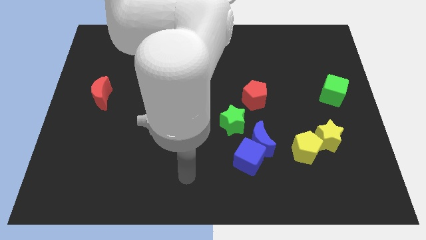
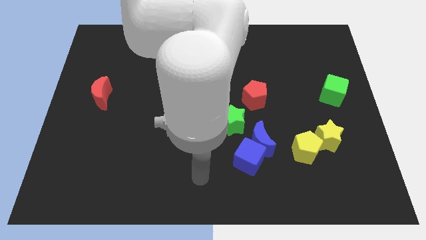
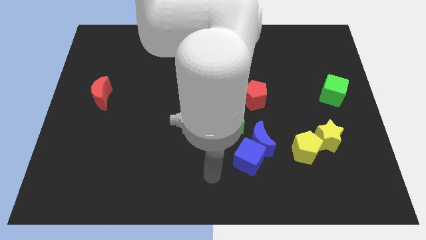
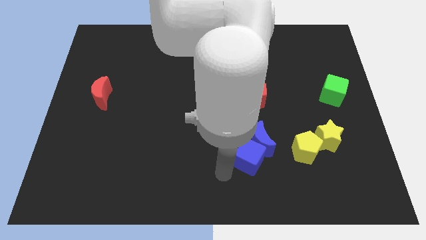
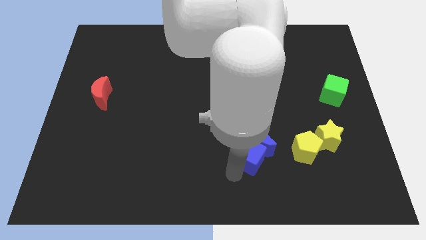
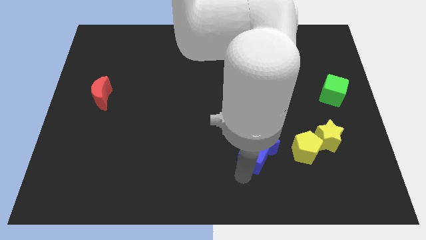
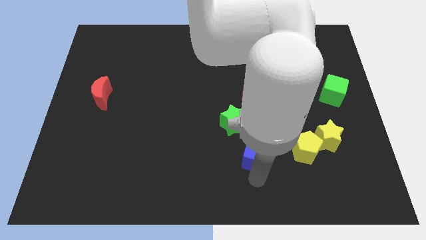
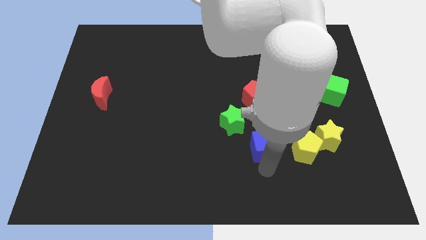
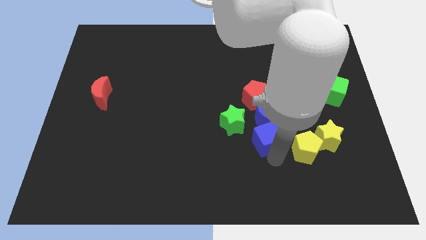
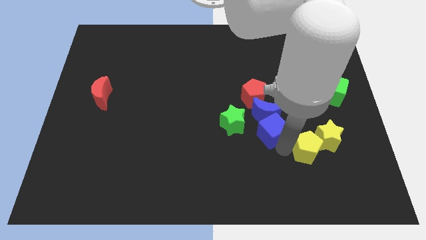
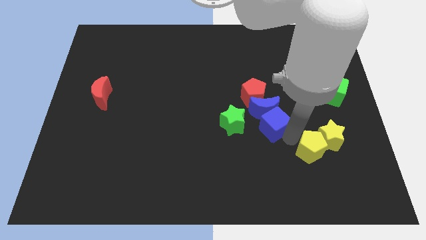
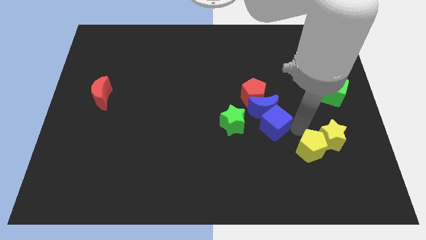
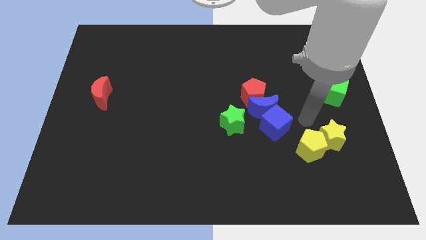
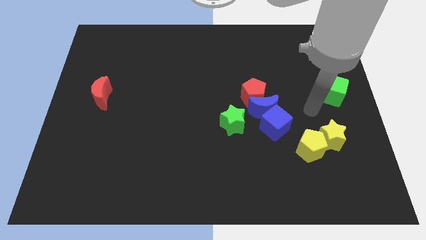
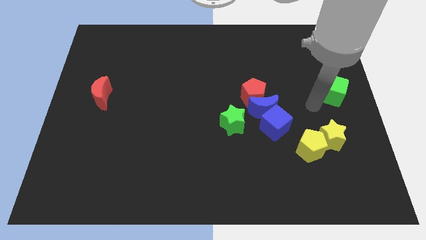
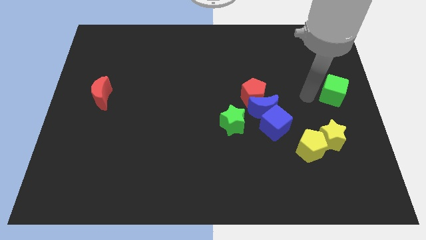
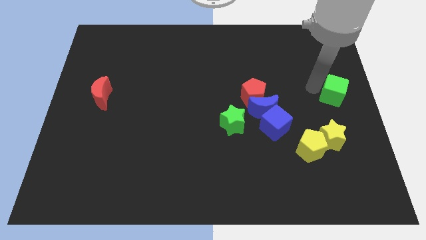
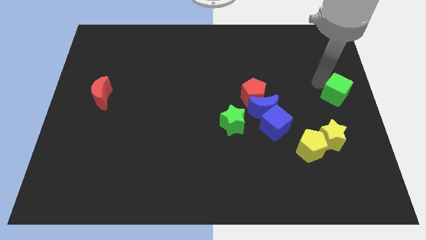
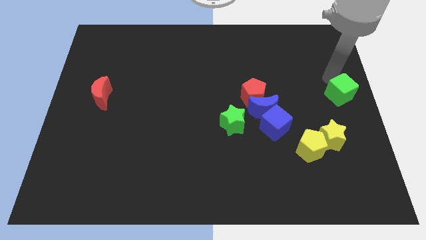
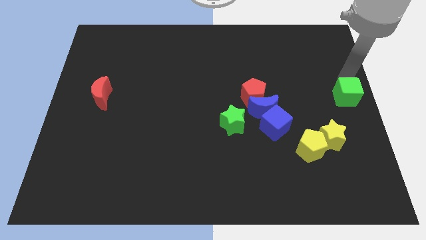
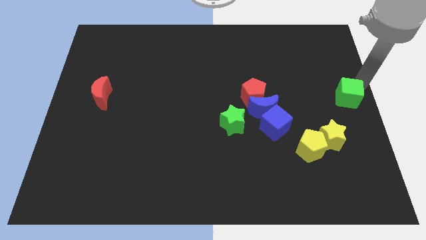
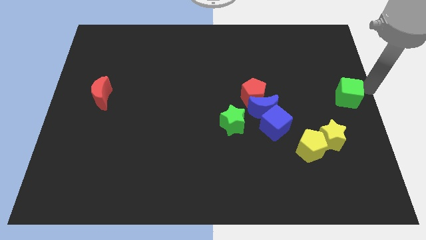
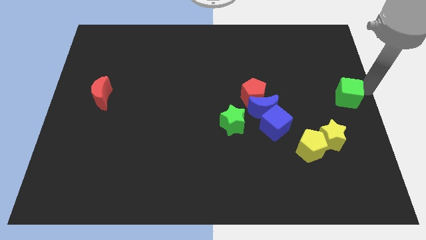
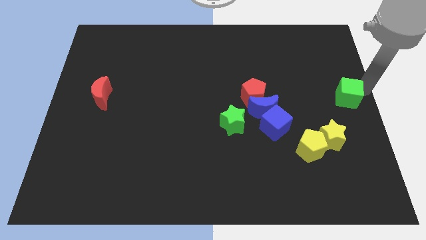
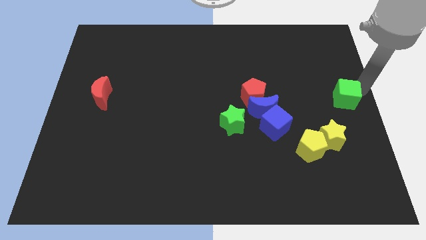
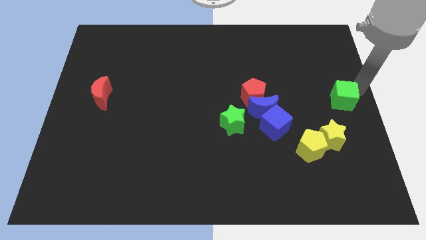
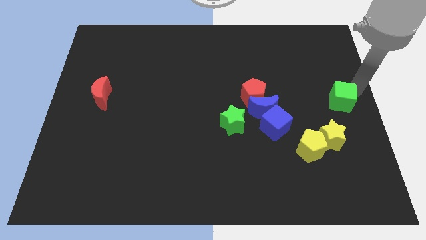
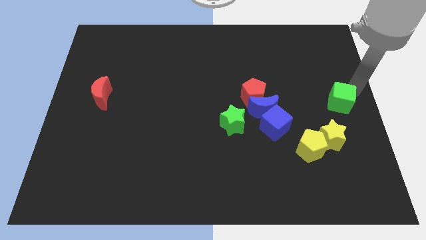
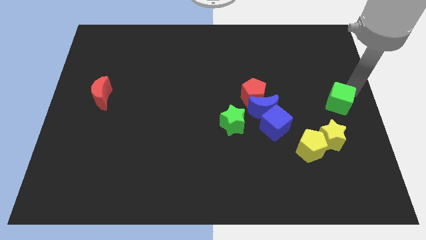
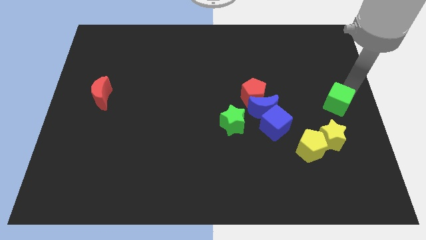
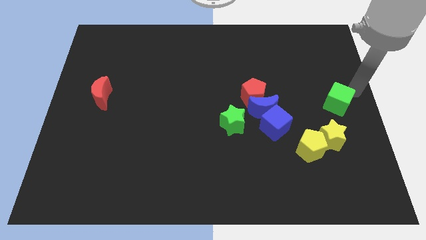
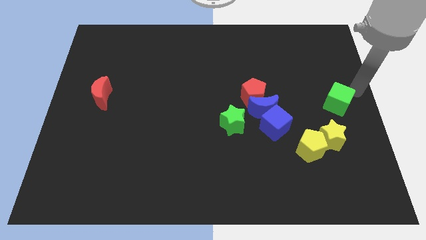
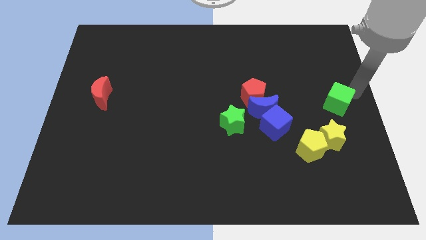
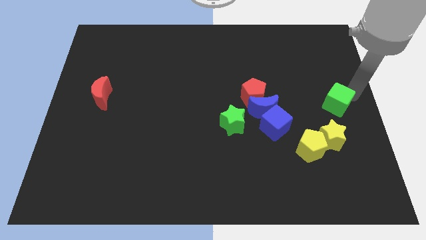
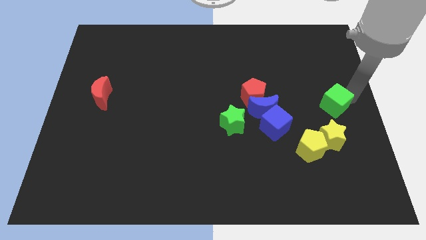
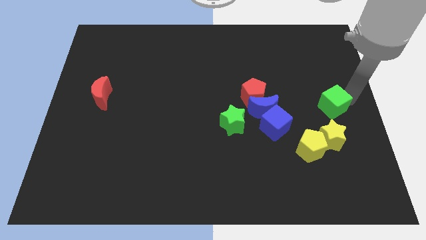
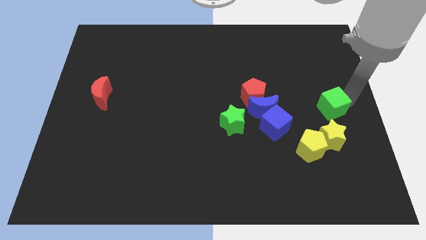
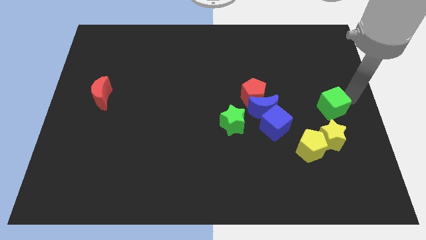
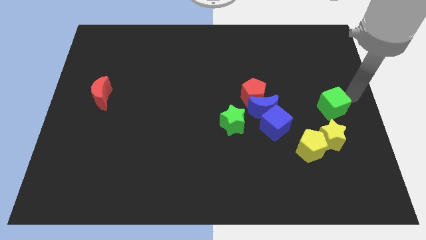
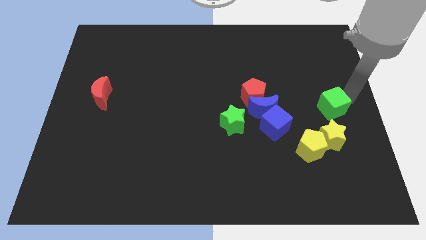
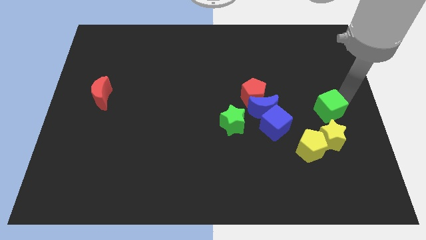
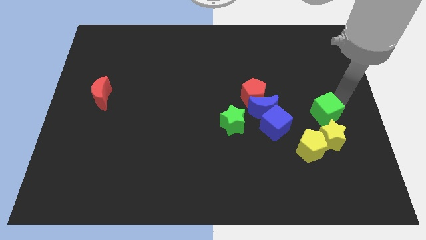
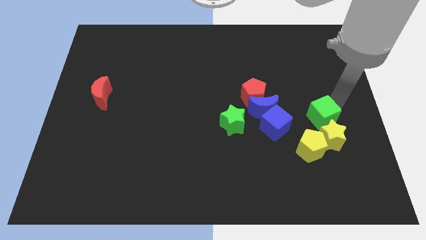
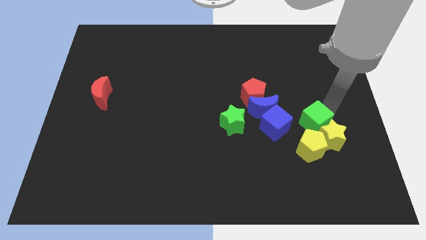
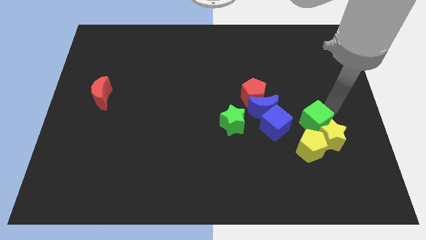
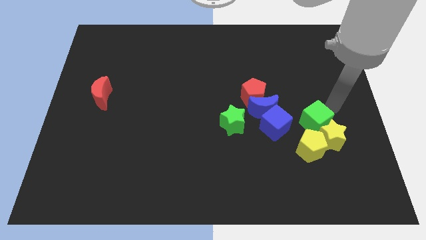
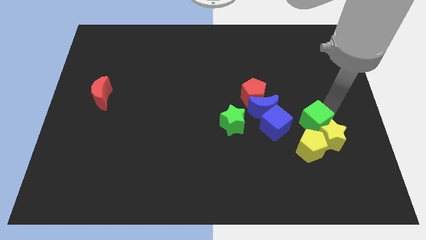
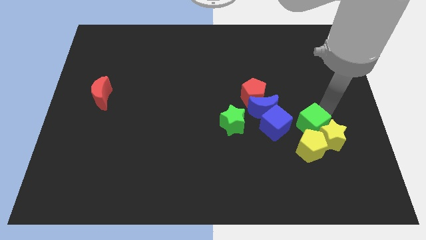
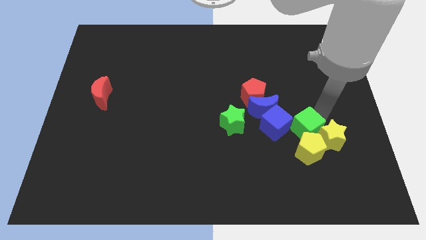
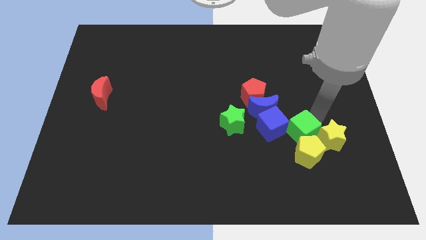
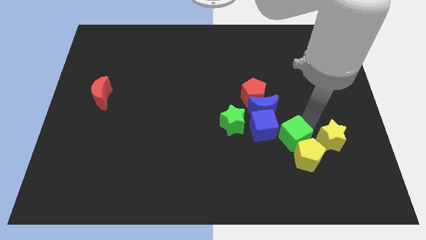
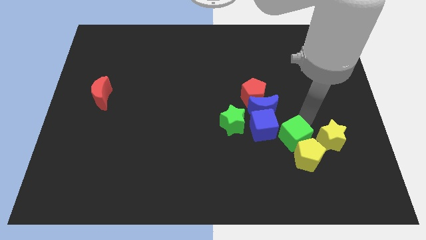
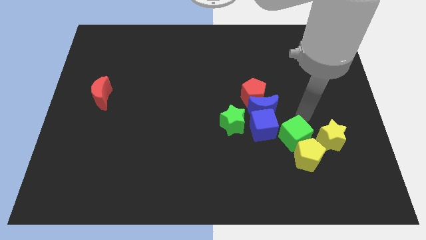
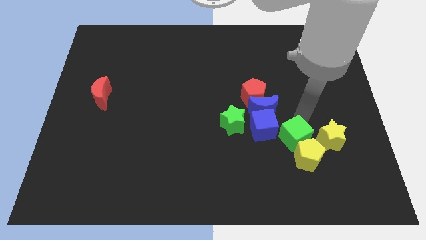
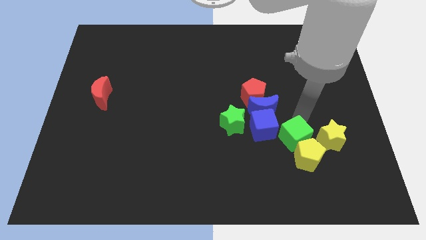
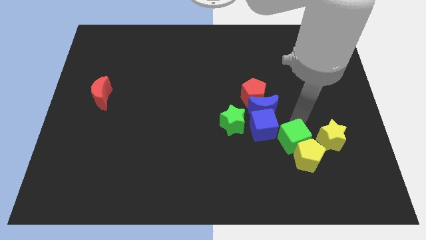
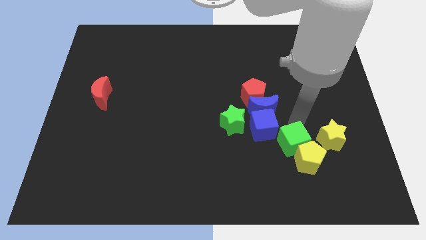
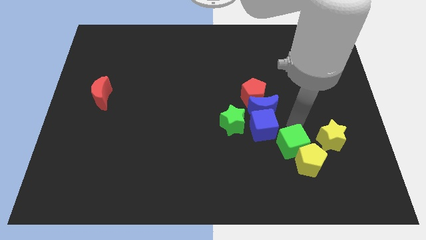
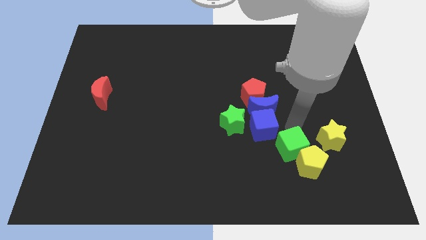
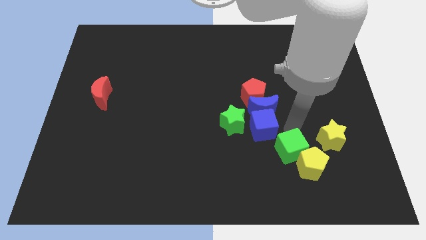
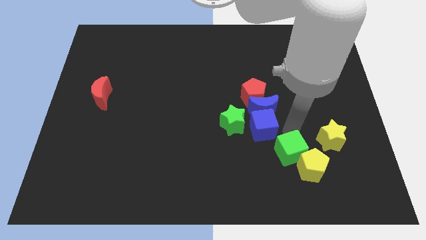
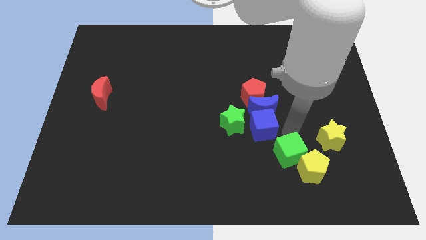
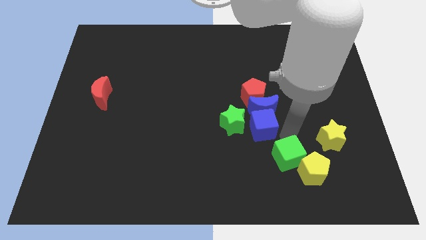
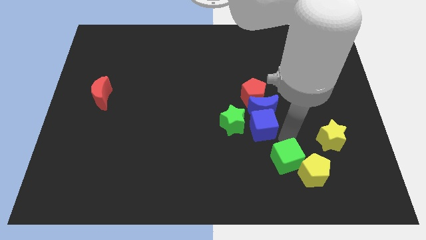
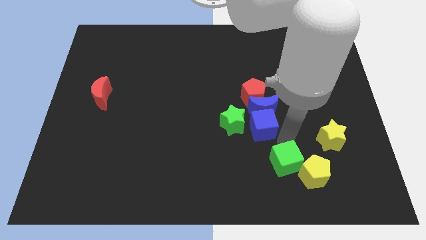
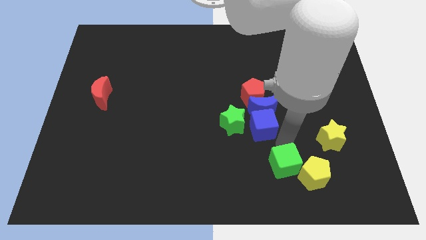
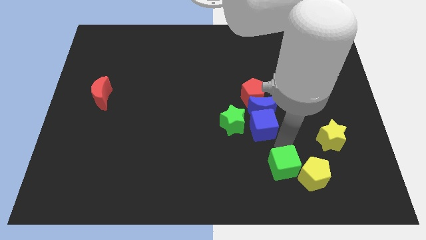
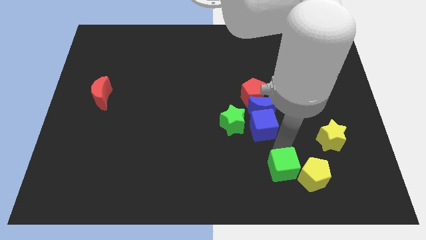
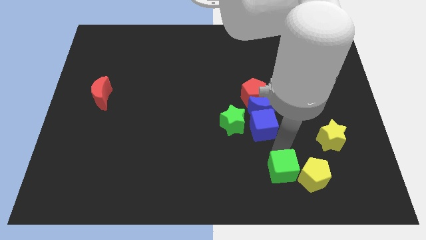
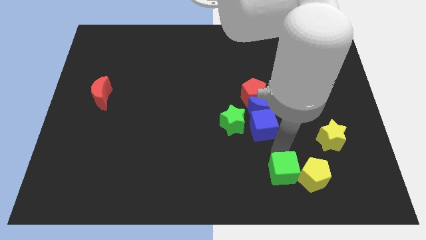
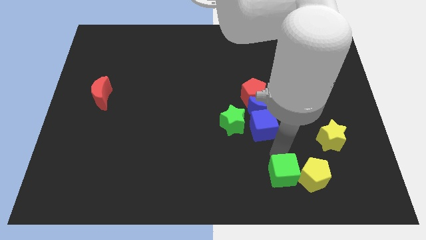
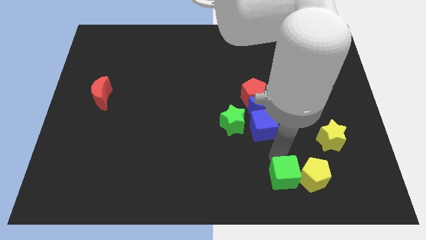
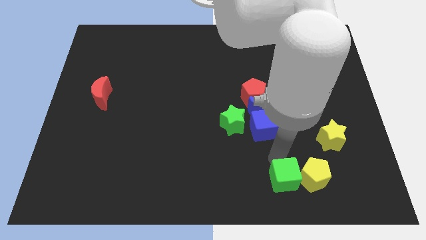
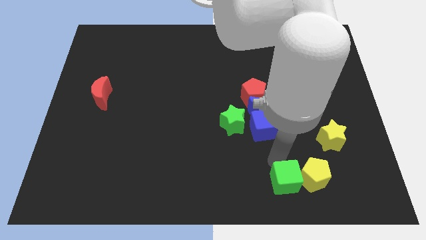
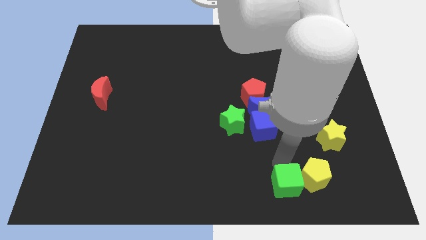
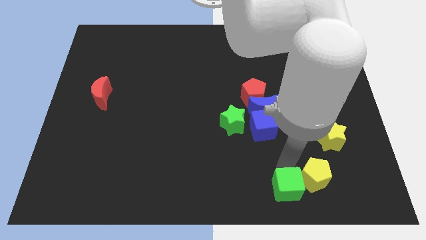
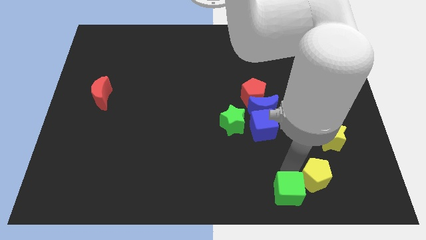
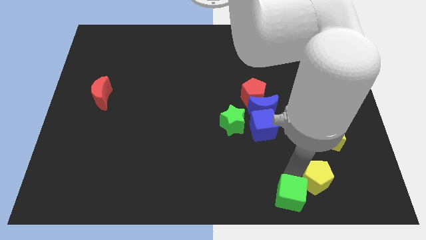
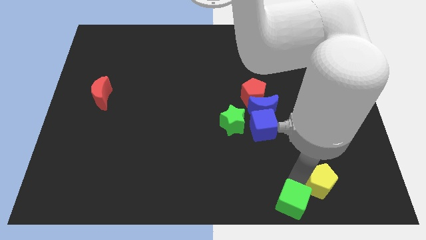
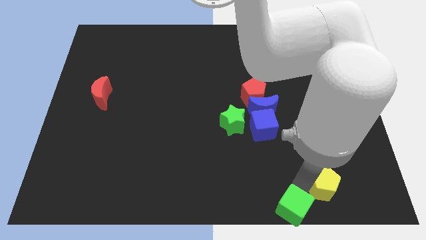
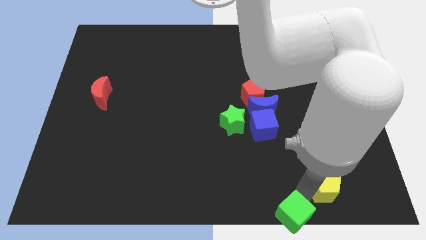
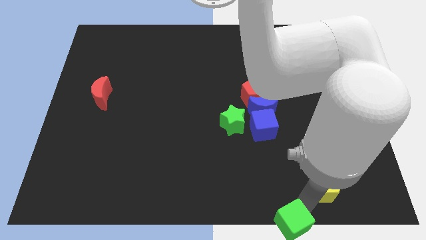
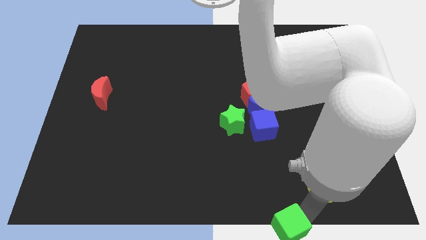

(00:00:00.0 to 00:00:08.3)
slide the green cube to the bottom
